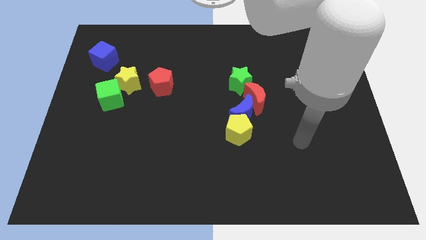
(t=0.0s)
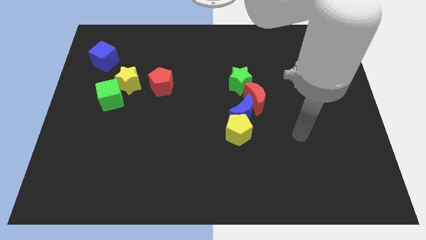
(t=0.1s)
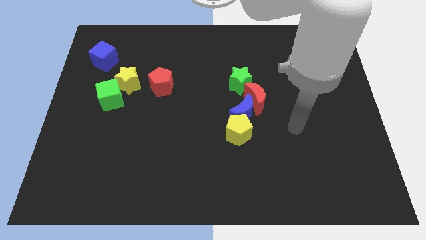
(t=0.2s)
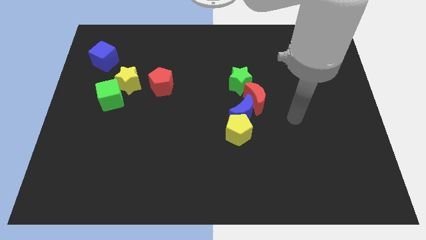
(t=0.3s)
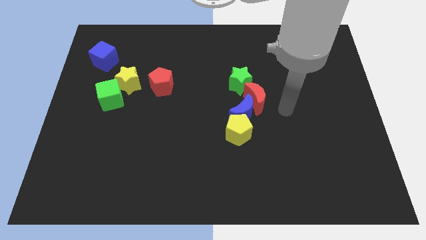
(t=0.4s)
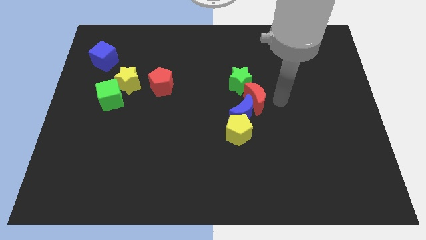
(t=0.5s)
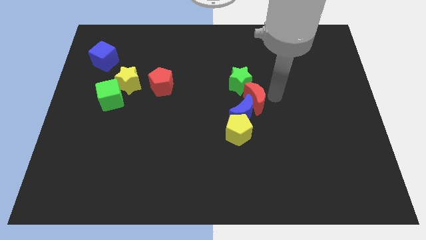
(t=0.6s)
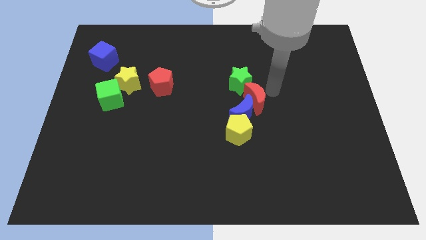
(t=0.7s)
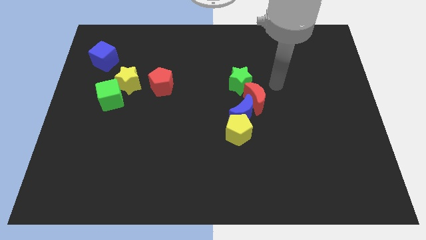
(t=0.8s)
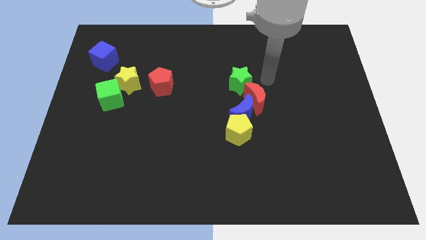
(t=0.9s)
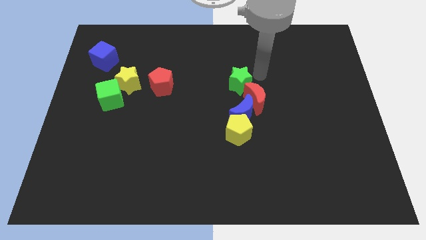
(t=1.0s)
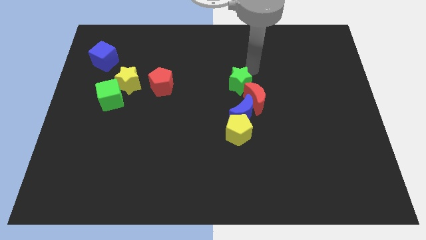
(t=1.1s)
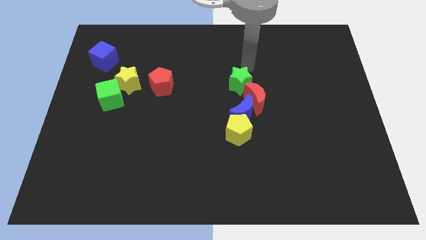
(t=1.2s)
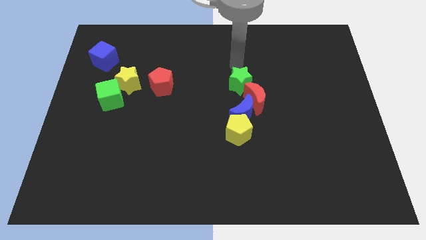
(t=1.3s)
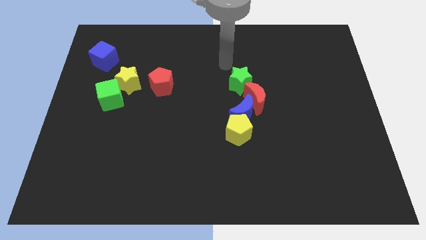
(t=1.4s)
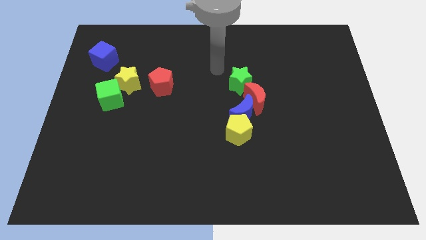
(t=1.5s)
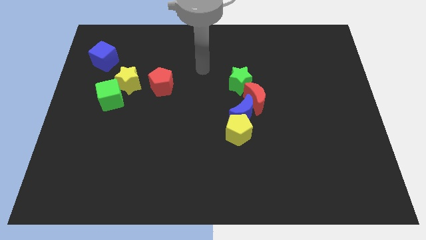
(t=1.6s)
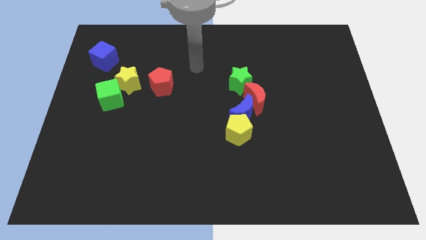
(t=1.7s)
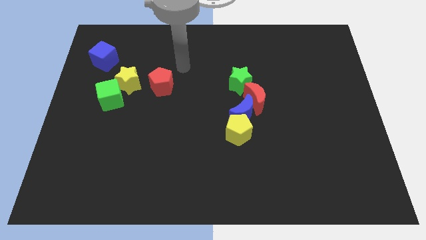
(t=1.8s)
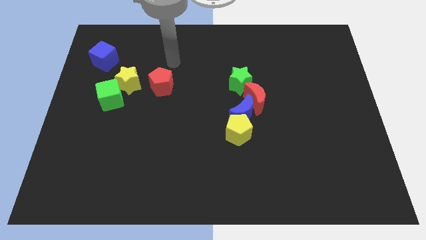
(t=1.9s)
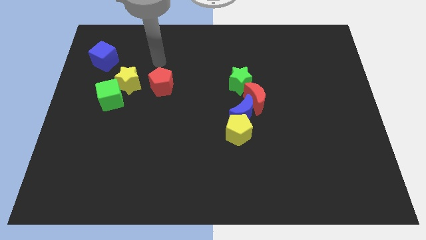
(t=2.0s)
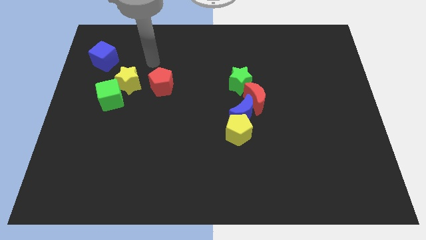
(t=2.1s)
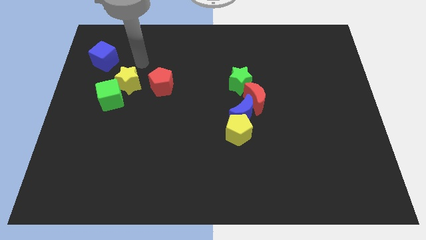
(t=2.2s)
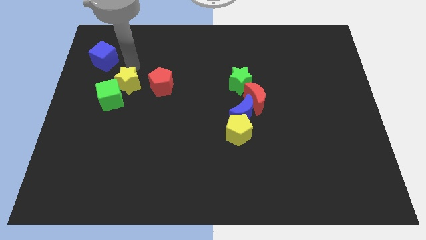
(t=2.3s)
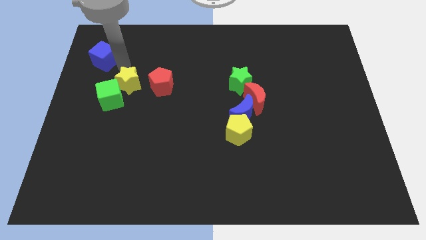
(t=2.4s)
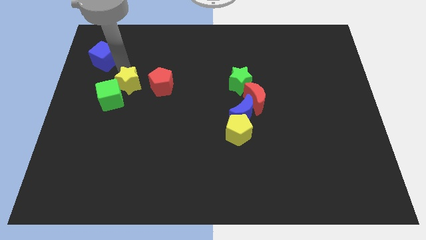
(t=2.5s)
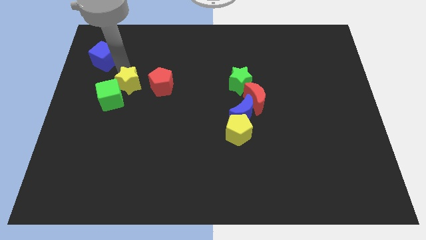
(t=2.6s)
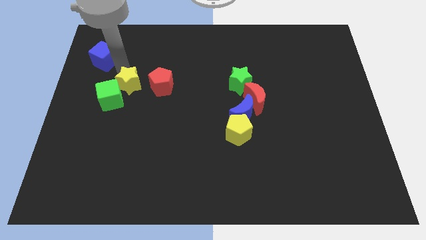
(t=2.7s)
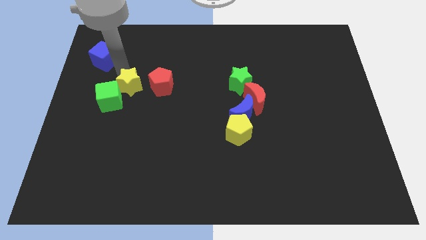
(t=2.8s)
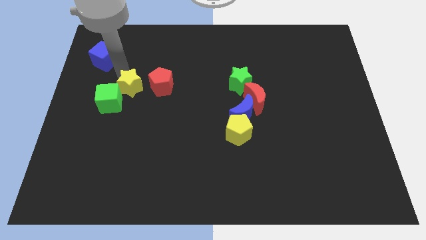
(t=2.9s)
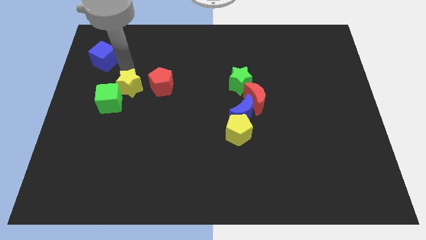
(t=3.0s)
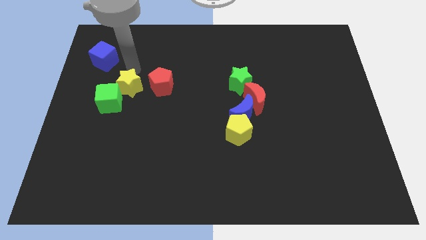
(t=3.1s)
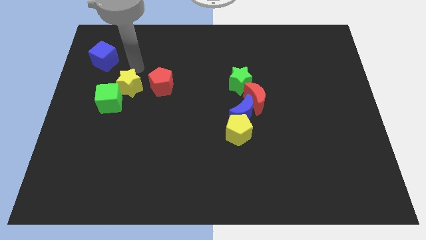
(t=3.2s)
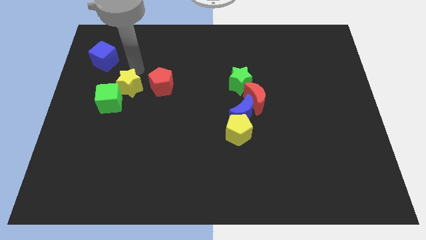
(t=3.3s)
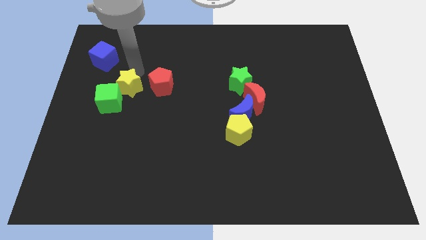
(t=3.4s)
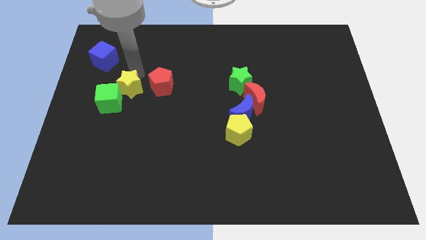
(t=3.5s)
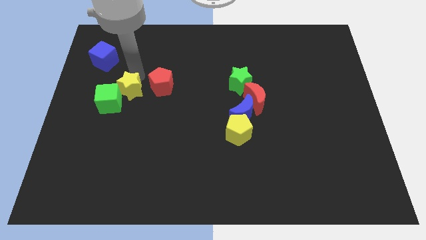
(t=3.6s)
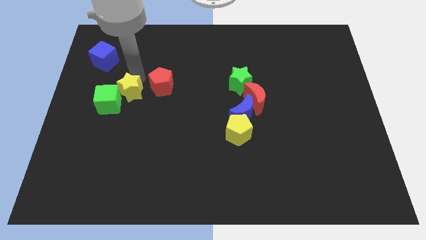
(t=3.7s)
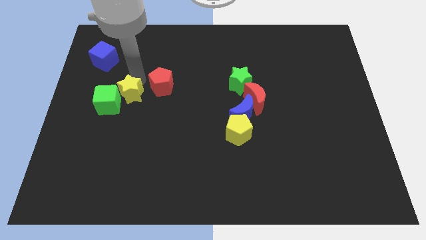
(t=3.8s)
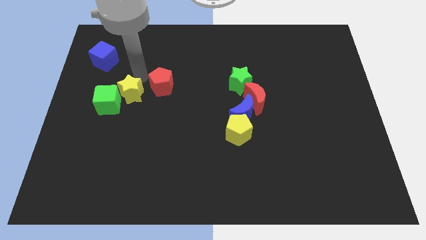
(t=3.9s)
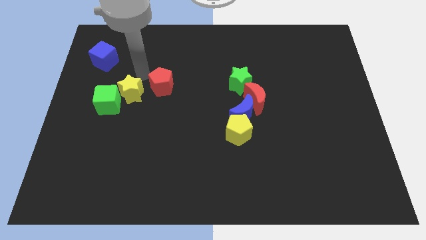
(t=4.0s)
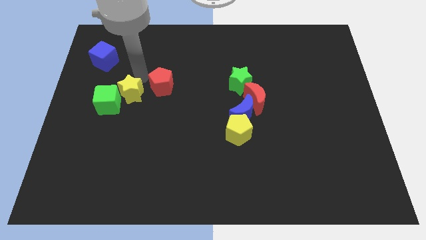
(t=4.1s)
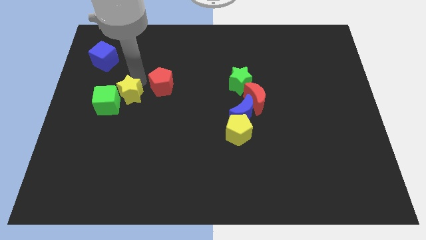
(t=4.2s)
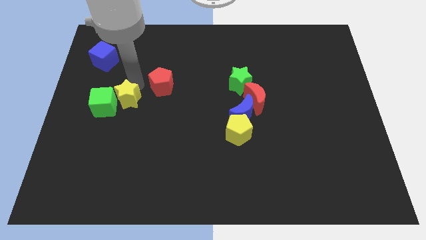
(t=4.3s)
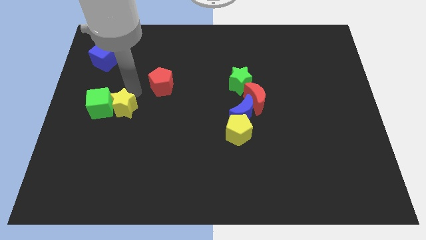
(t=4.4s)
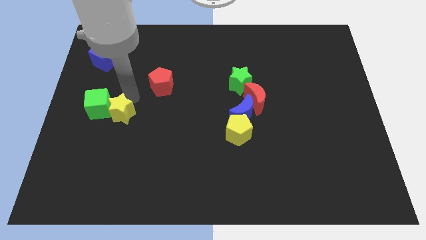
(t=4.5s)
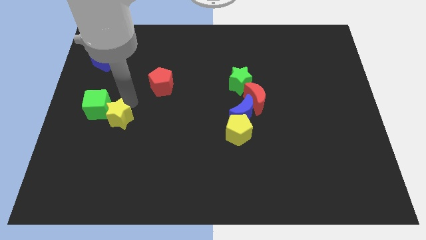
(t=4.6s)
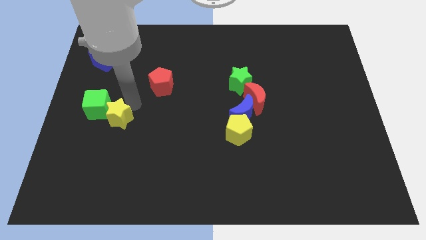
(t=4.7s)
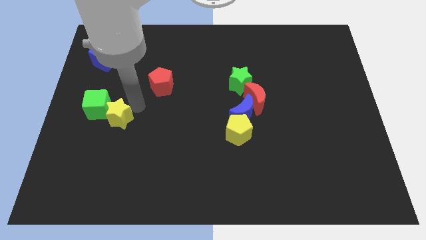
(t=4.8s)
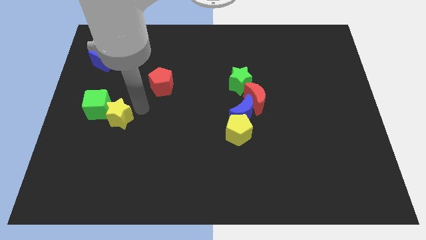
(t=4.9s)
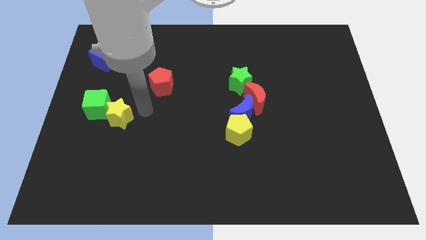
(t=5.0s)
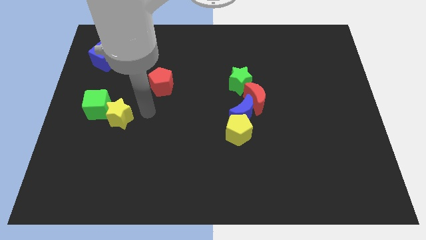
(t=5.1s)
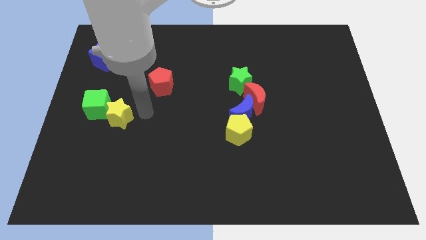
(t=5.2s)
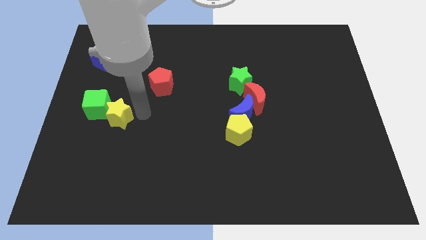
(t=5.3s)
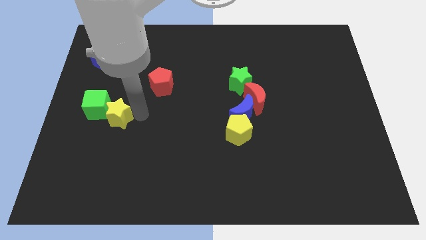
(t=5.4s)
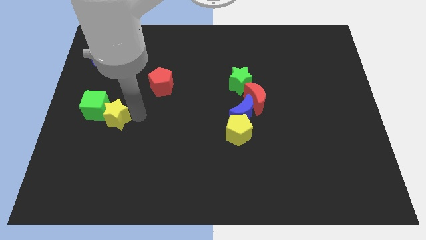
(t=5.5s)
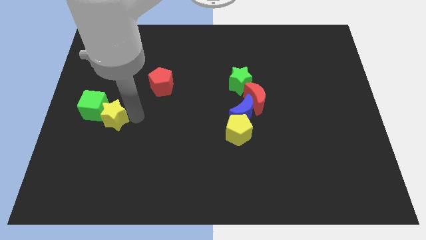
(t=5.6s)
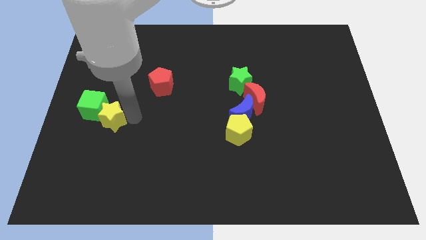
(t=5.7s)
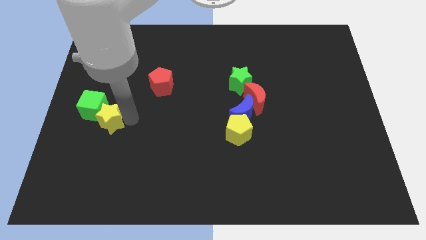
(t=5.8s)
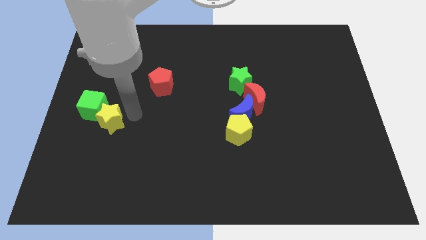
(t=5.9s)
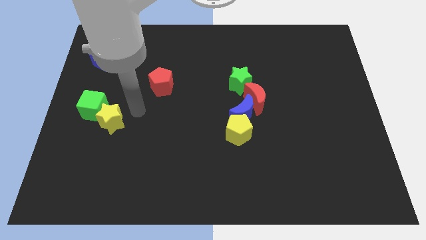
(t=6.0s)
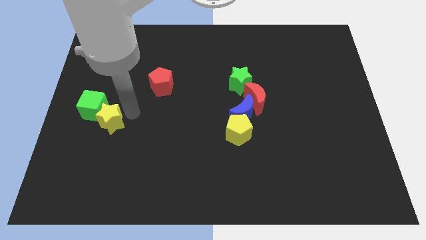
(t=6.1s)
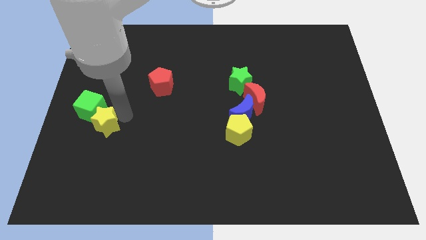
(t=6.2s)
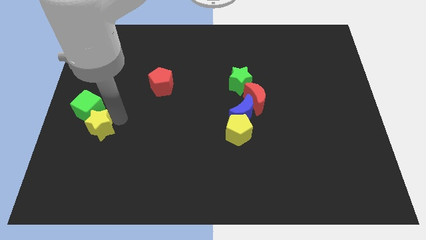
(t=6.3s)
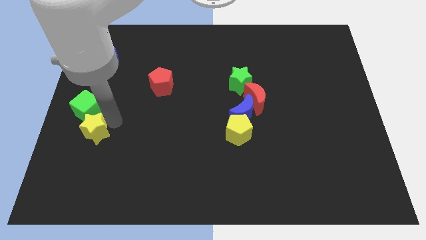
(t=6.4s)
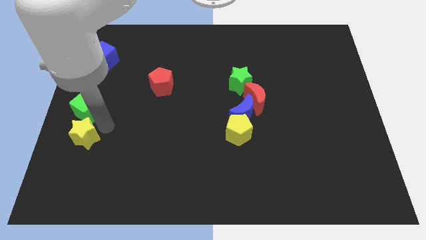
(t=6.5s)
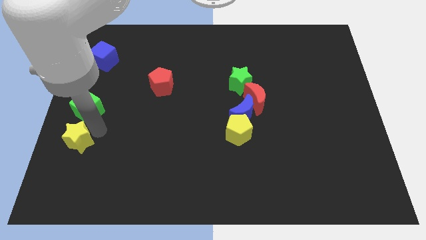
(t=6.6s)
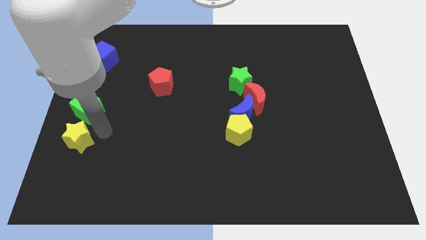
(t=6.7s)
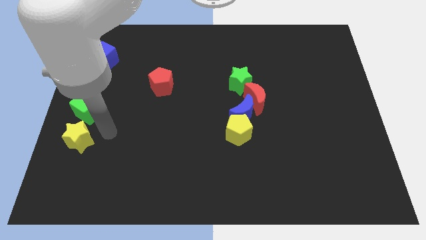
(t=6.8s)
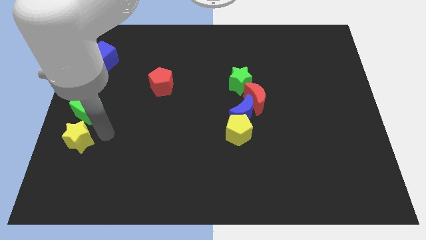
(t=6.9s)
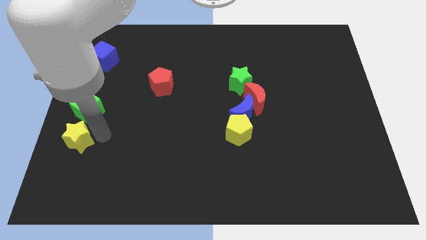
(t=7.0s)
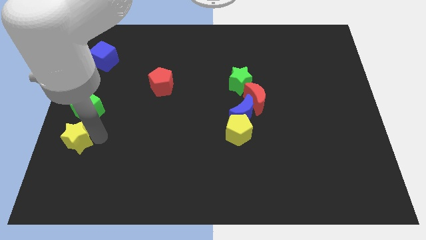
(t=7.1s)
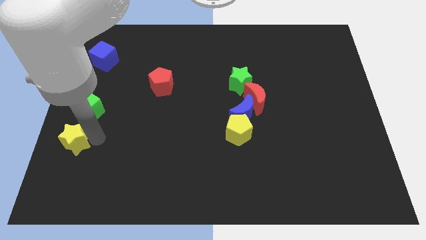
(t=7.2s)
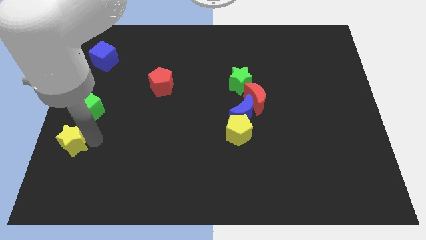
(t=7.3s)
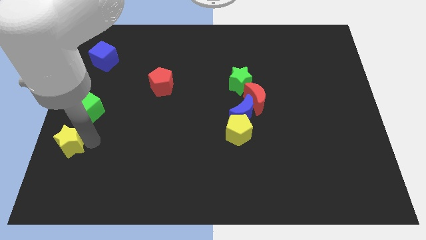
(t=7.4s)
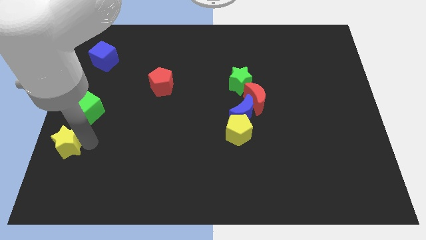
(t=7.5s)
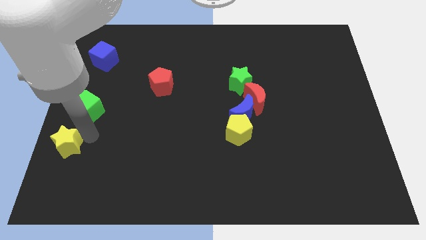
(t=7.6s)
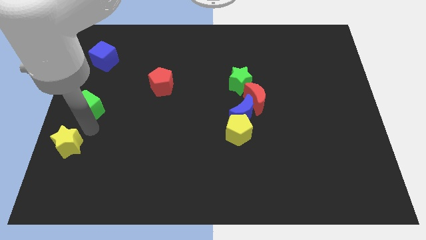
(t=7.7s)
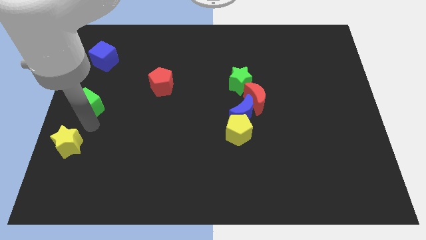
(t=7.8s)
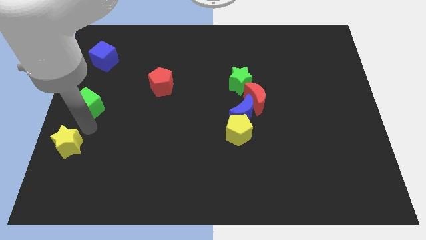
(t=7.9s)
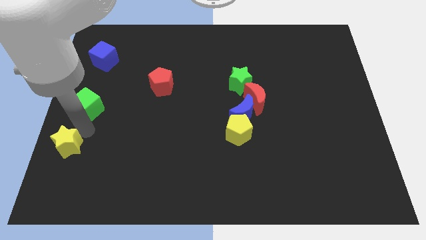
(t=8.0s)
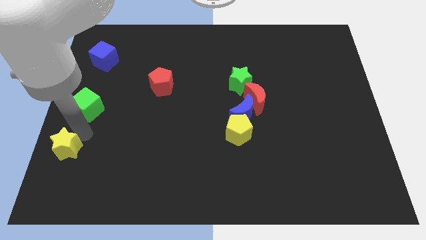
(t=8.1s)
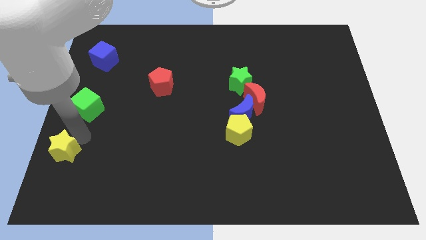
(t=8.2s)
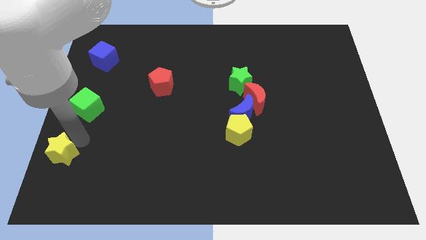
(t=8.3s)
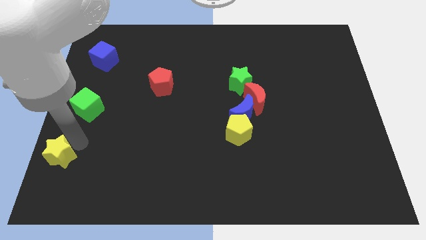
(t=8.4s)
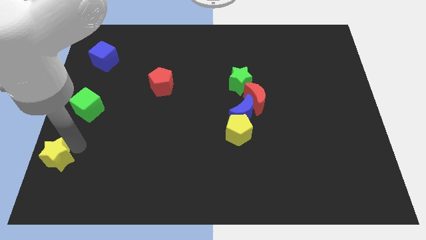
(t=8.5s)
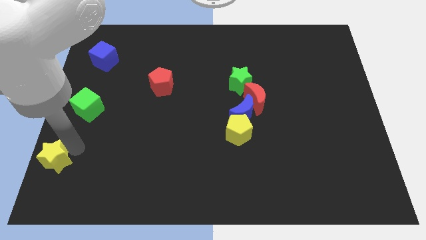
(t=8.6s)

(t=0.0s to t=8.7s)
move the yellow star to the bottom left
